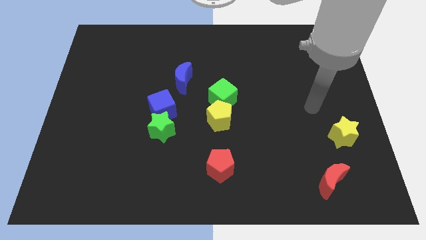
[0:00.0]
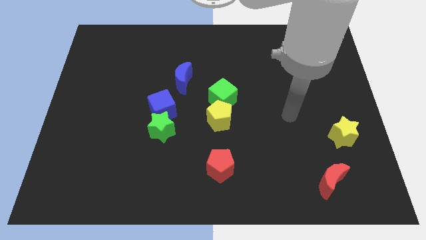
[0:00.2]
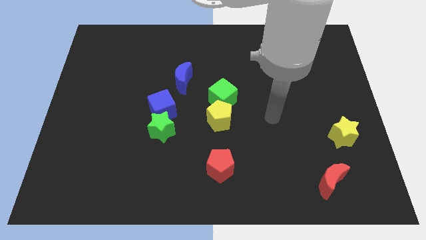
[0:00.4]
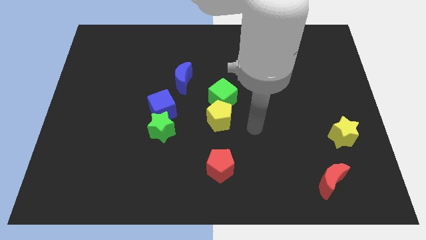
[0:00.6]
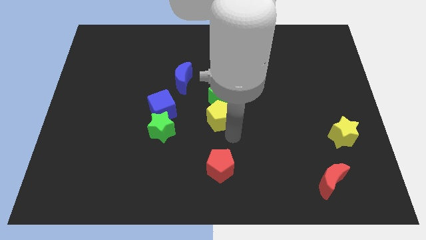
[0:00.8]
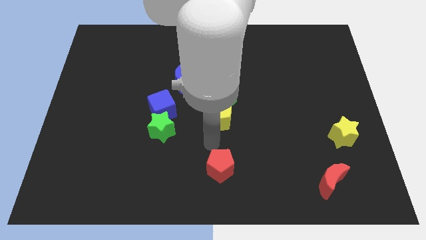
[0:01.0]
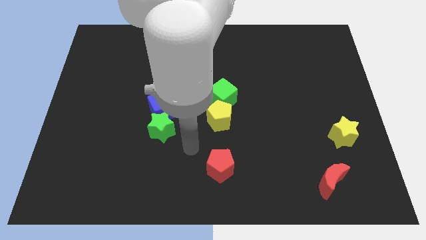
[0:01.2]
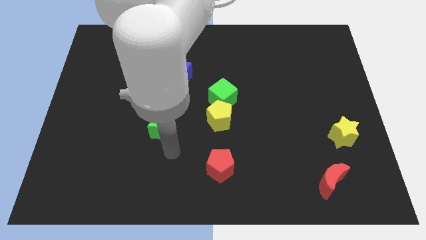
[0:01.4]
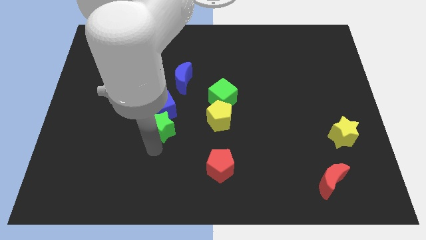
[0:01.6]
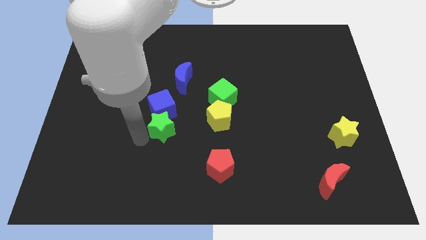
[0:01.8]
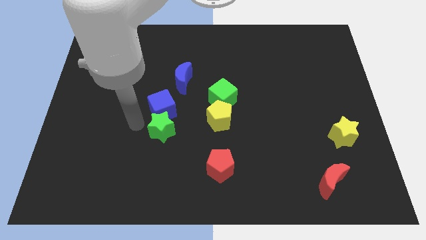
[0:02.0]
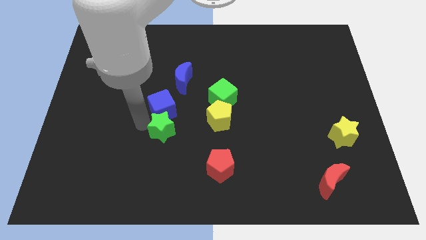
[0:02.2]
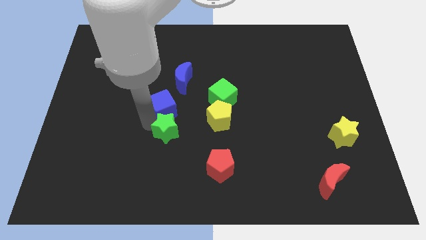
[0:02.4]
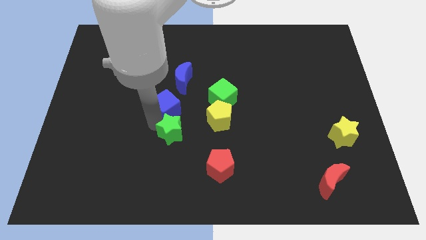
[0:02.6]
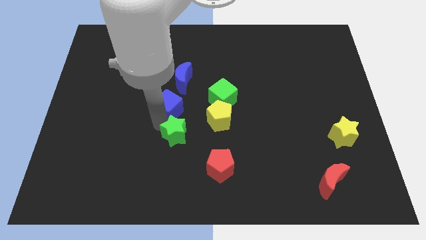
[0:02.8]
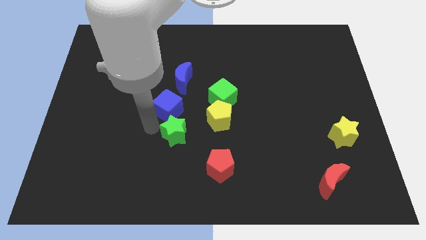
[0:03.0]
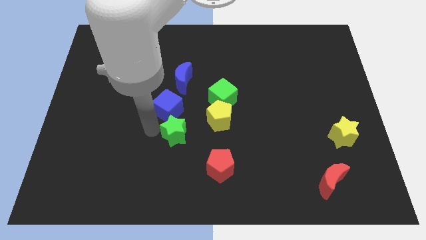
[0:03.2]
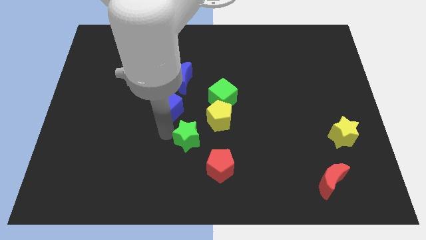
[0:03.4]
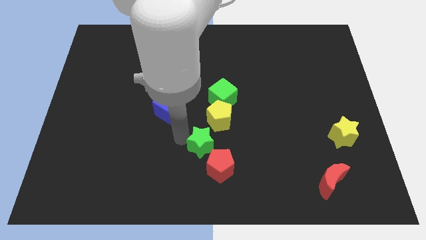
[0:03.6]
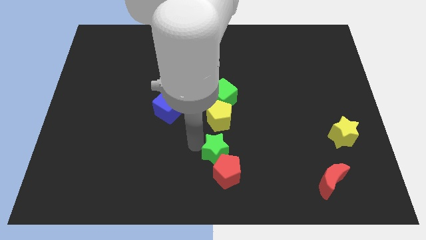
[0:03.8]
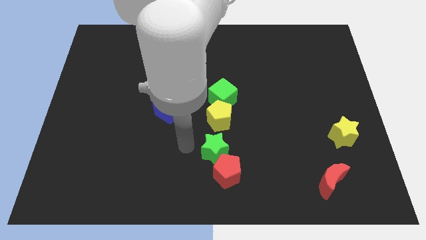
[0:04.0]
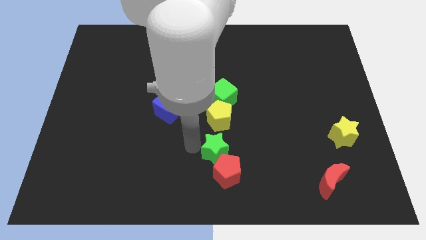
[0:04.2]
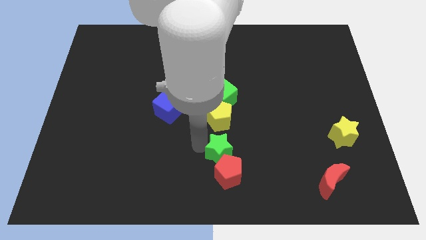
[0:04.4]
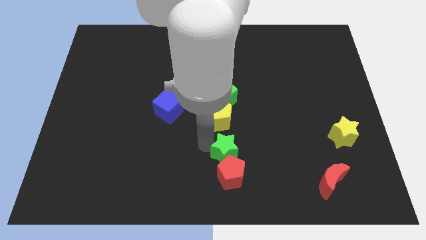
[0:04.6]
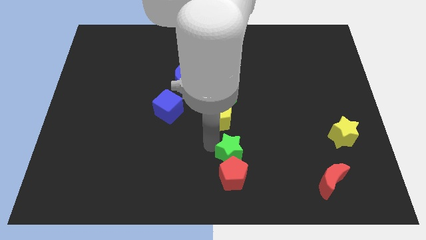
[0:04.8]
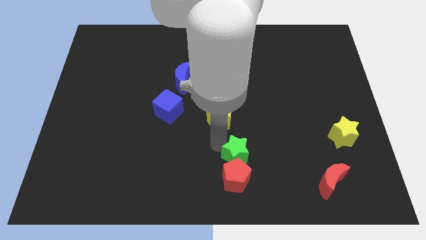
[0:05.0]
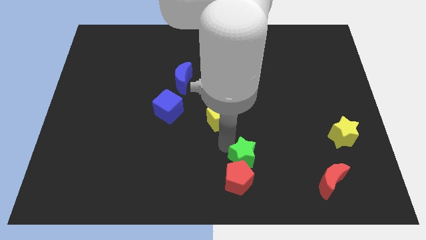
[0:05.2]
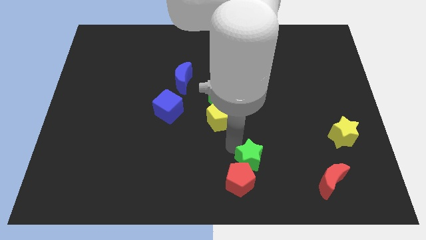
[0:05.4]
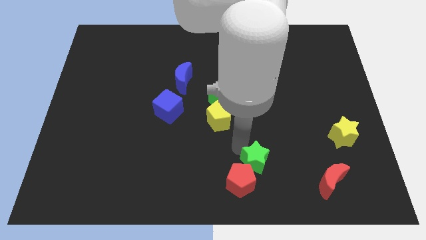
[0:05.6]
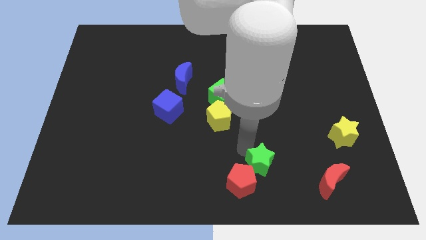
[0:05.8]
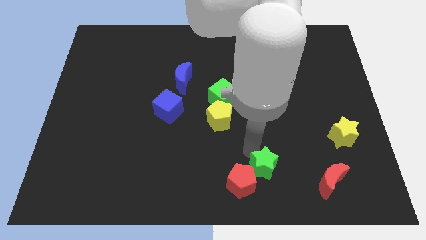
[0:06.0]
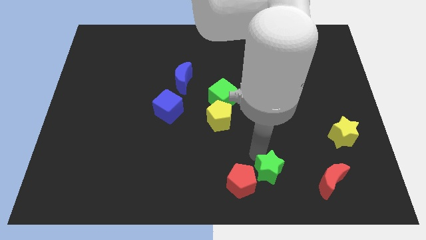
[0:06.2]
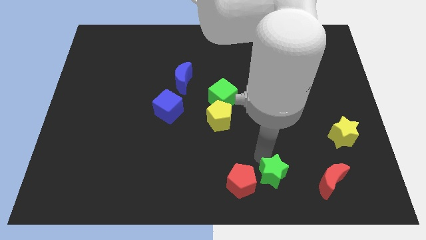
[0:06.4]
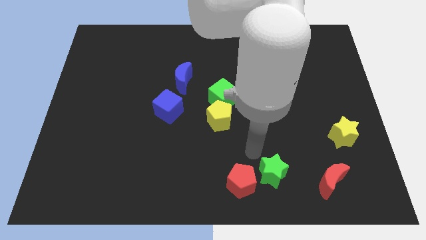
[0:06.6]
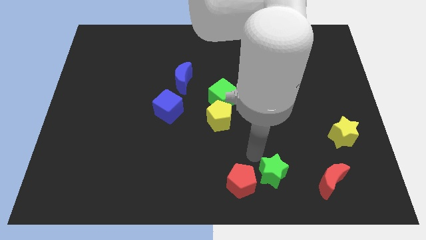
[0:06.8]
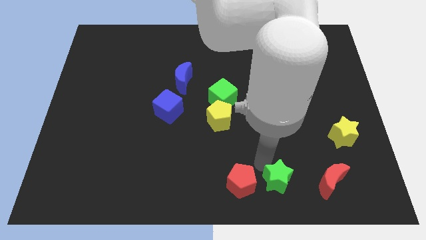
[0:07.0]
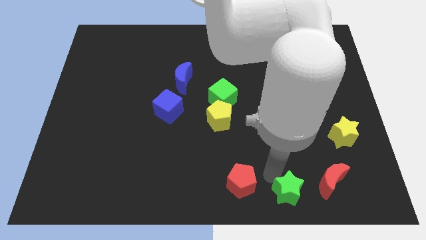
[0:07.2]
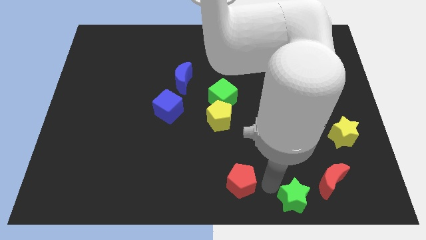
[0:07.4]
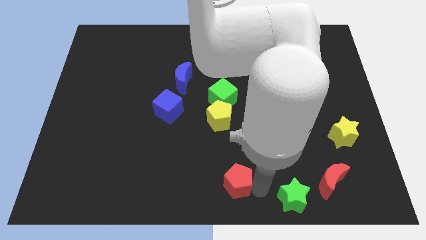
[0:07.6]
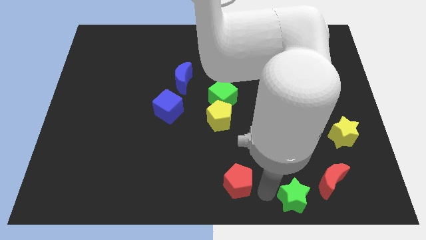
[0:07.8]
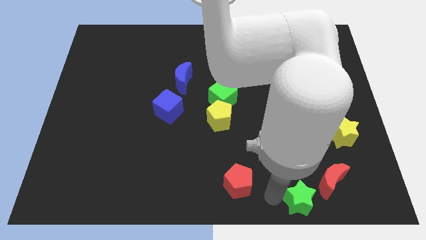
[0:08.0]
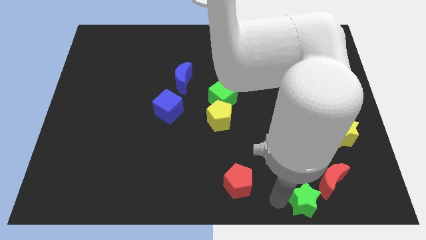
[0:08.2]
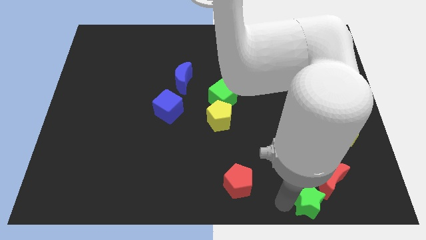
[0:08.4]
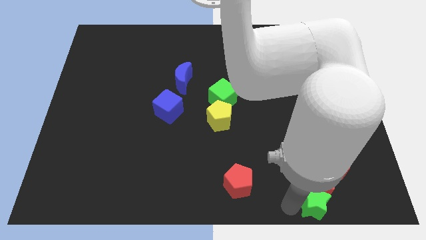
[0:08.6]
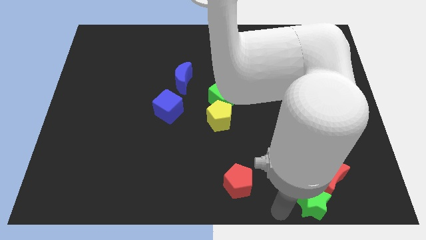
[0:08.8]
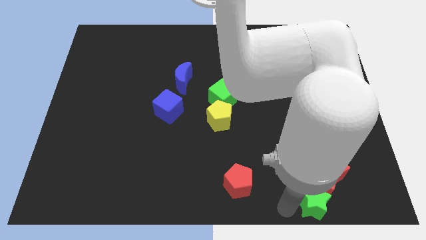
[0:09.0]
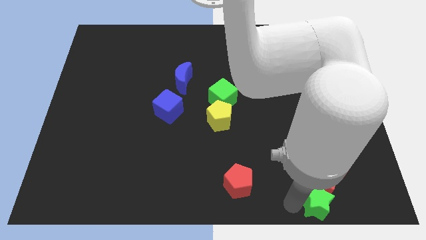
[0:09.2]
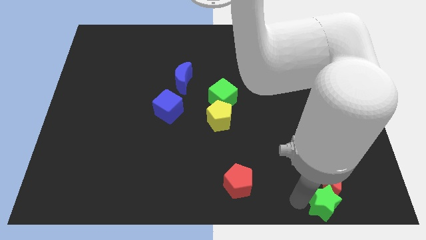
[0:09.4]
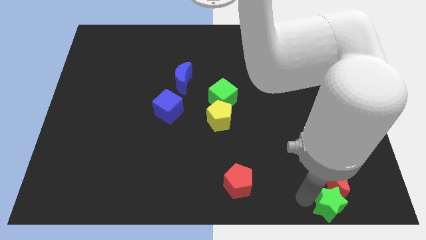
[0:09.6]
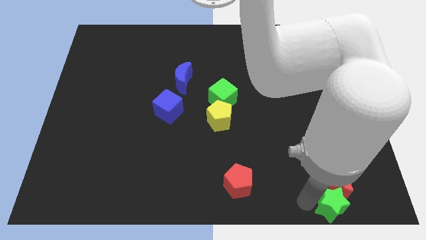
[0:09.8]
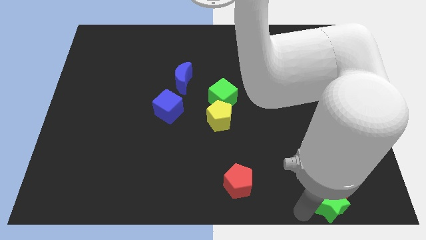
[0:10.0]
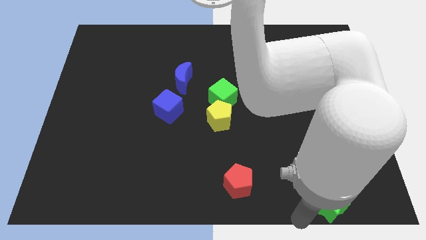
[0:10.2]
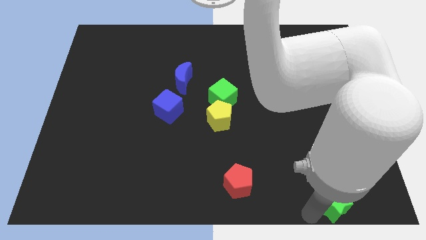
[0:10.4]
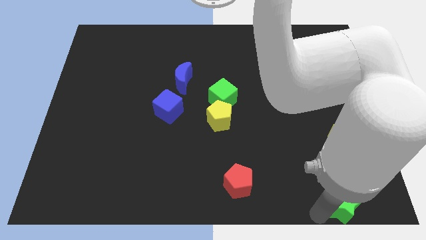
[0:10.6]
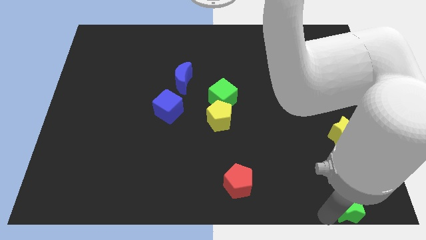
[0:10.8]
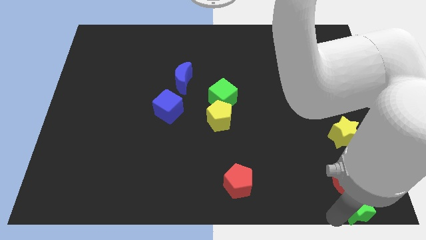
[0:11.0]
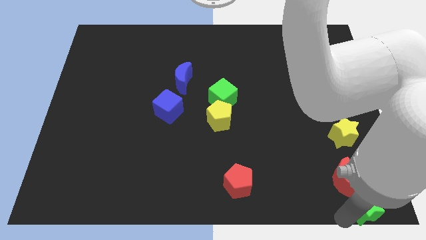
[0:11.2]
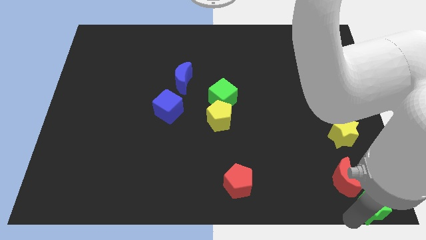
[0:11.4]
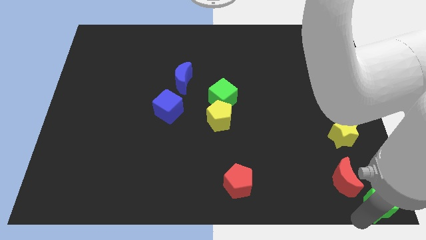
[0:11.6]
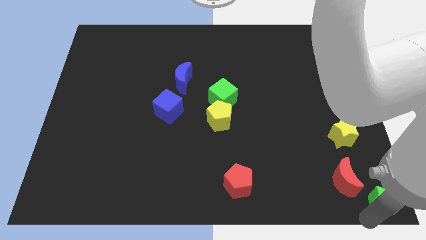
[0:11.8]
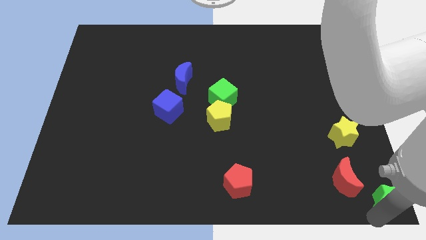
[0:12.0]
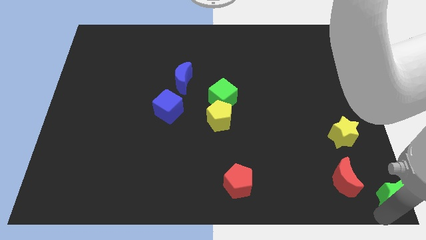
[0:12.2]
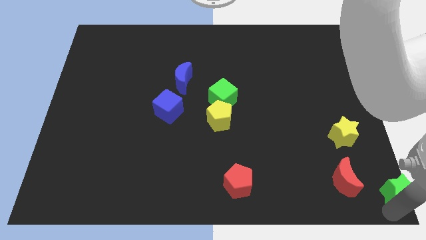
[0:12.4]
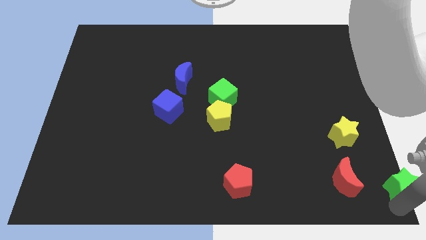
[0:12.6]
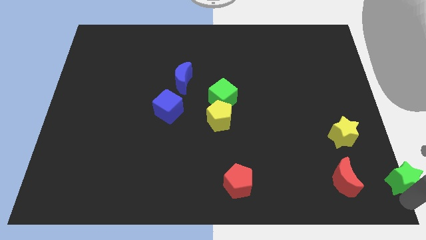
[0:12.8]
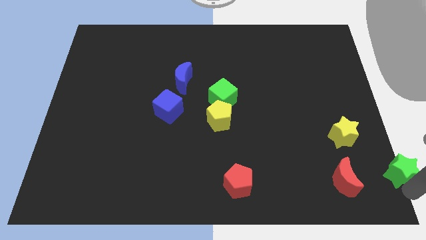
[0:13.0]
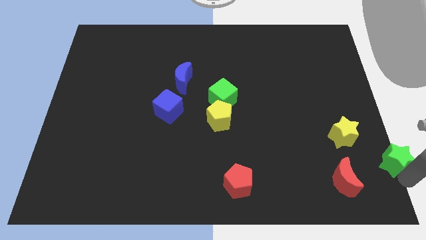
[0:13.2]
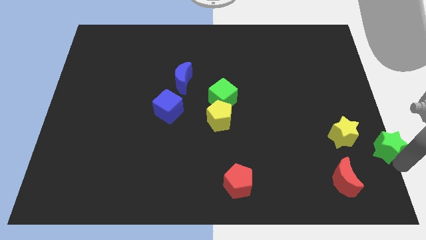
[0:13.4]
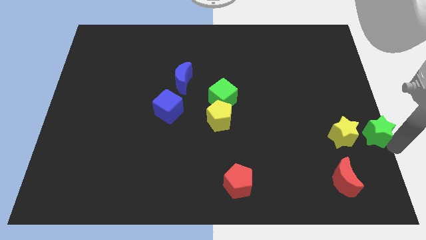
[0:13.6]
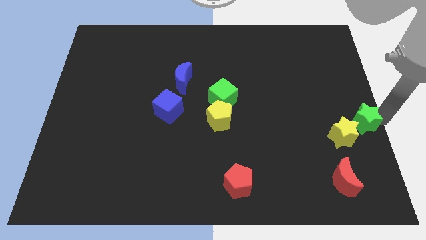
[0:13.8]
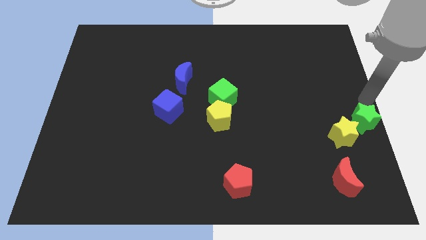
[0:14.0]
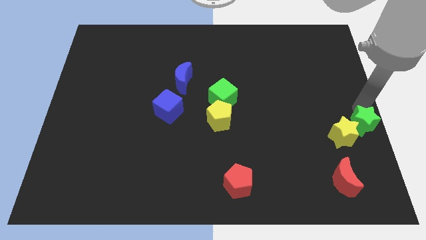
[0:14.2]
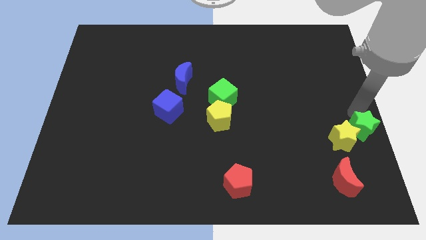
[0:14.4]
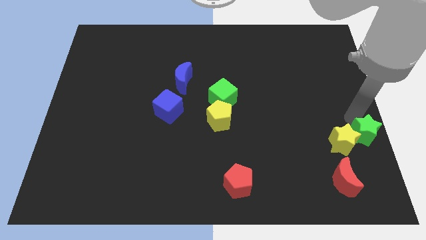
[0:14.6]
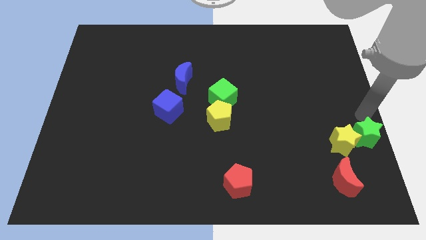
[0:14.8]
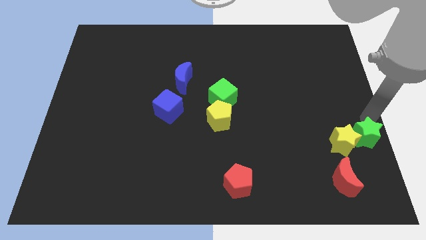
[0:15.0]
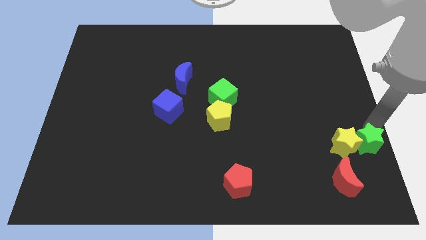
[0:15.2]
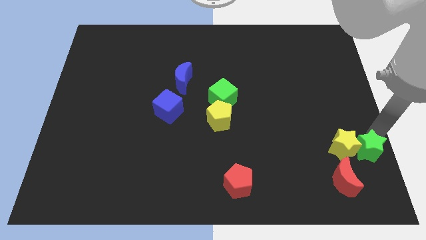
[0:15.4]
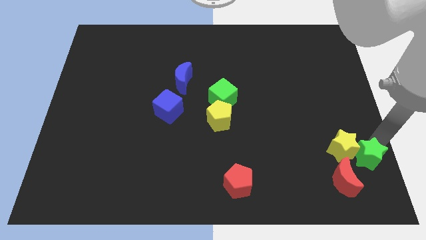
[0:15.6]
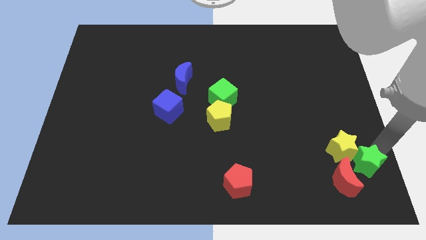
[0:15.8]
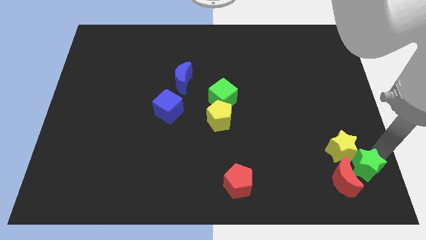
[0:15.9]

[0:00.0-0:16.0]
slide the green star below the yellow star
